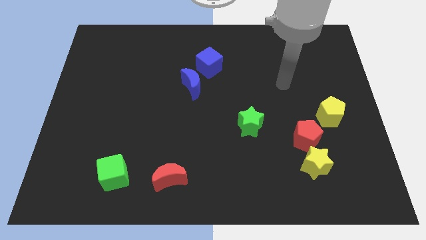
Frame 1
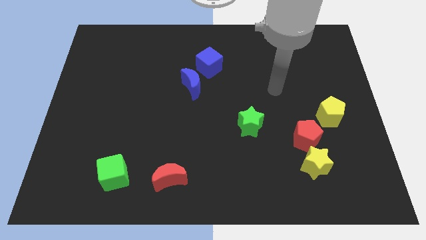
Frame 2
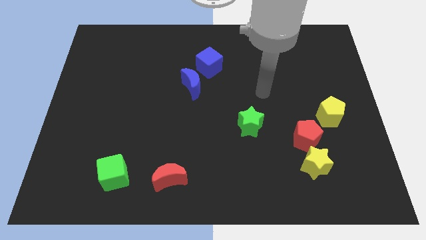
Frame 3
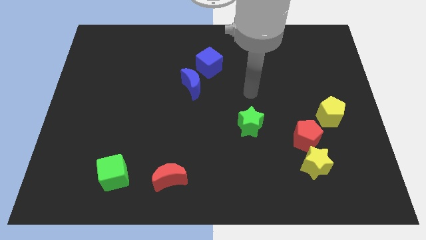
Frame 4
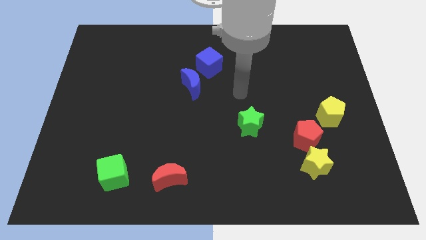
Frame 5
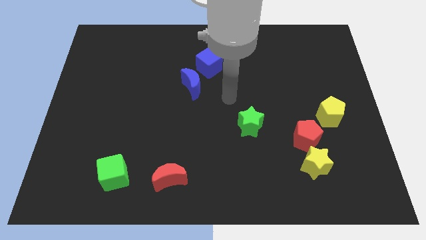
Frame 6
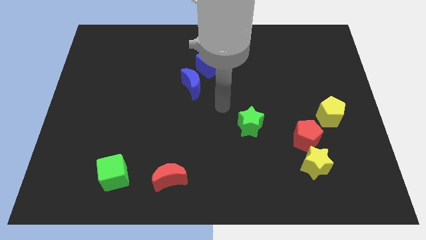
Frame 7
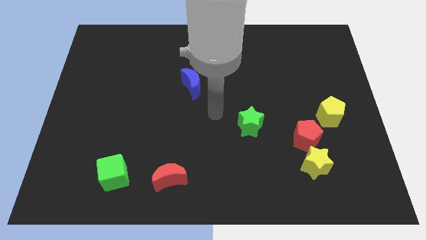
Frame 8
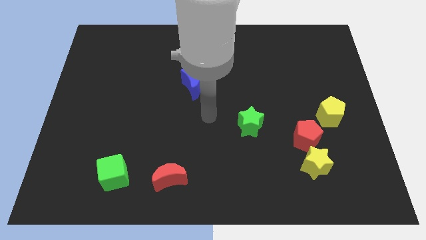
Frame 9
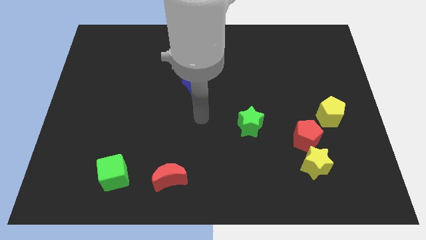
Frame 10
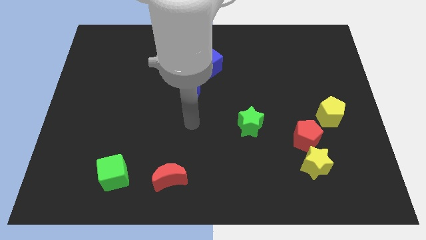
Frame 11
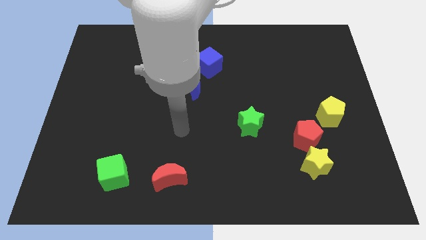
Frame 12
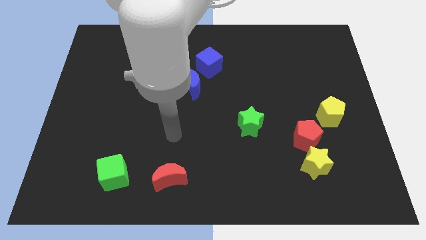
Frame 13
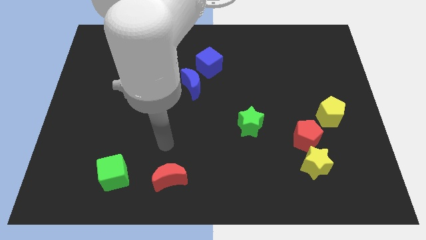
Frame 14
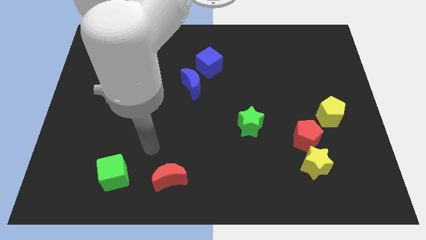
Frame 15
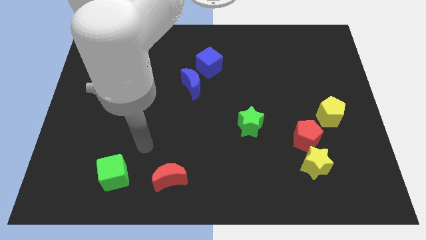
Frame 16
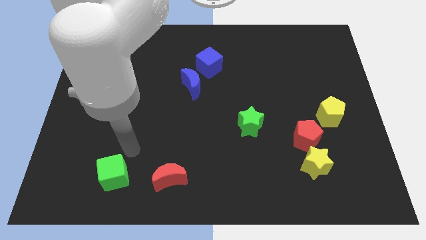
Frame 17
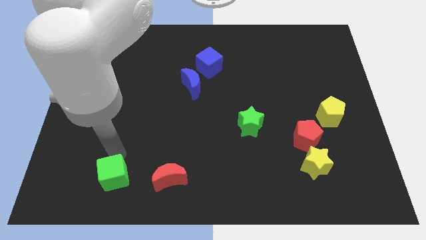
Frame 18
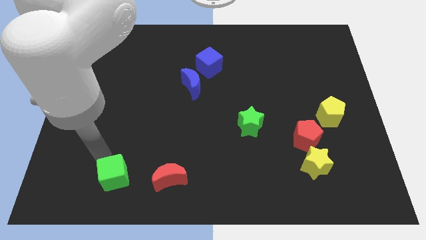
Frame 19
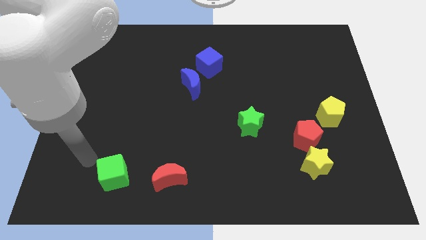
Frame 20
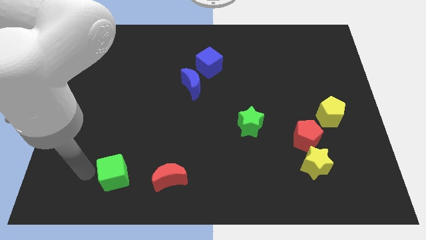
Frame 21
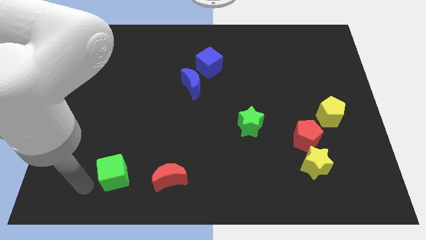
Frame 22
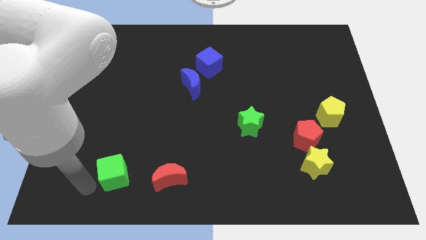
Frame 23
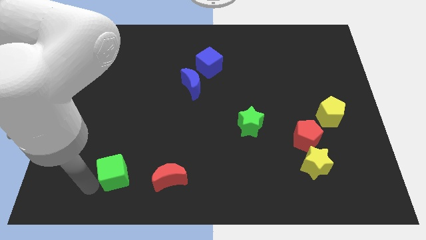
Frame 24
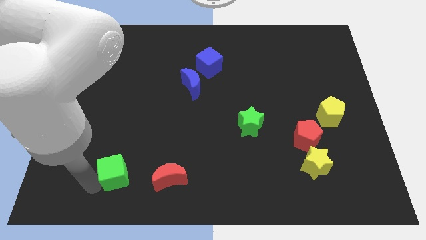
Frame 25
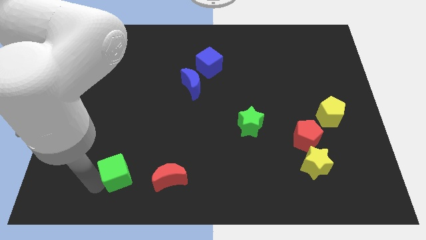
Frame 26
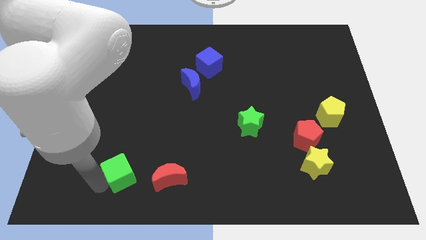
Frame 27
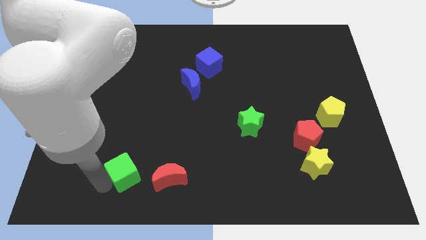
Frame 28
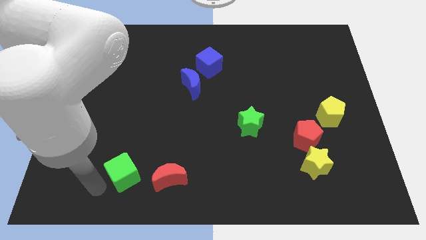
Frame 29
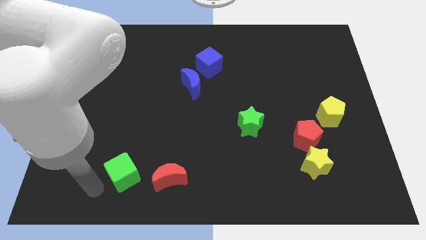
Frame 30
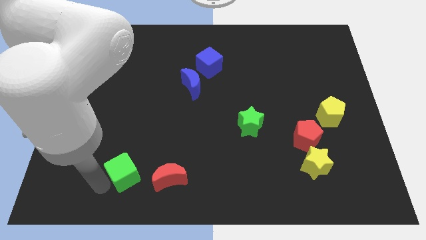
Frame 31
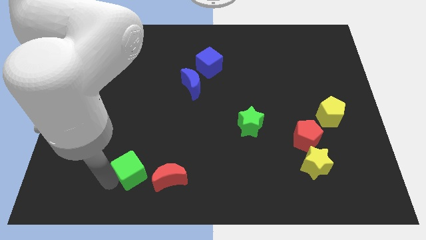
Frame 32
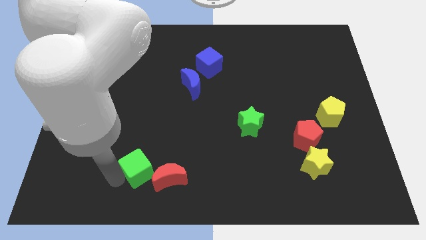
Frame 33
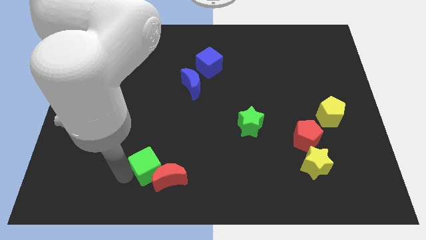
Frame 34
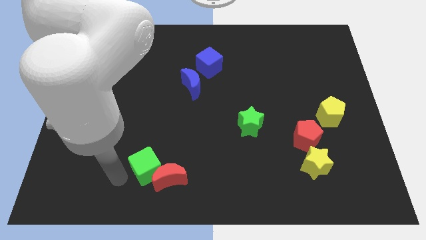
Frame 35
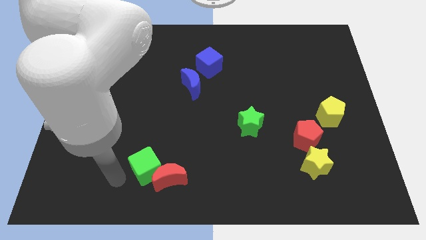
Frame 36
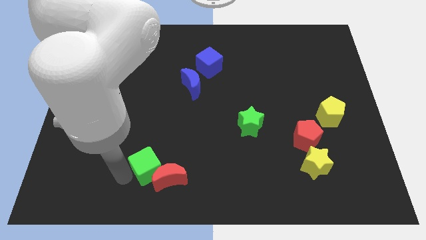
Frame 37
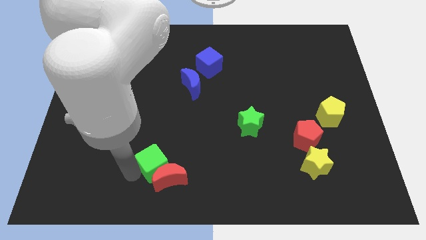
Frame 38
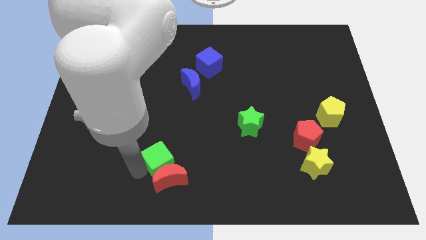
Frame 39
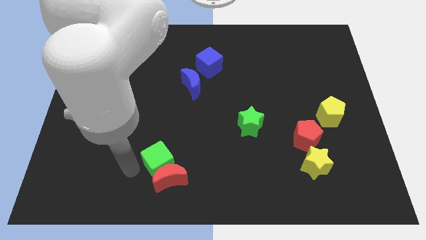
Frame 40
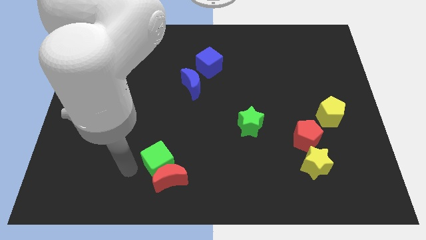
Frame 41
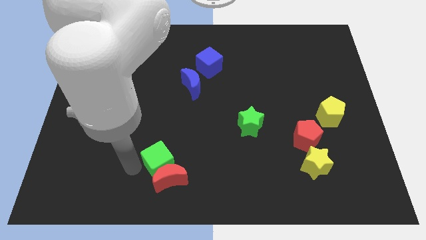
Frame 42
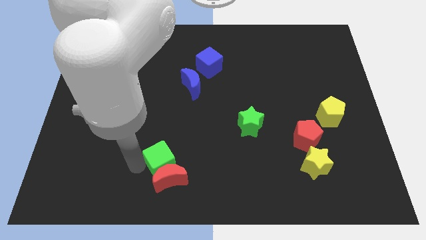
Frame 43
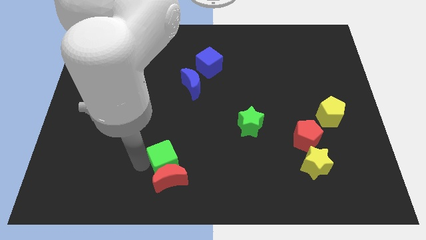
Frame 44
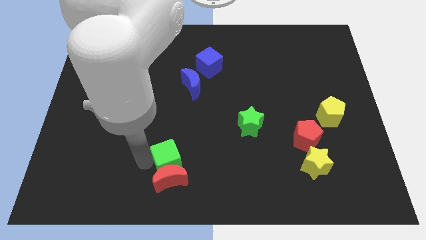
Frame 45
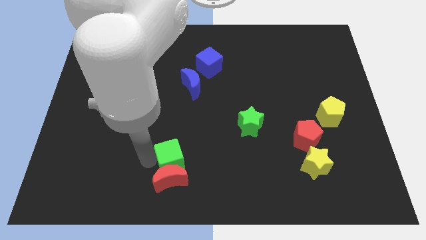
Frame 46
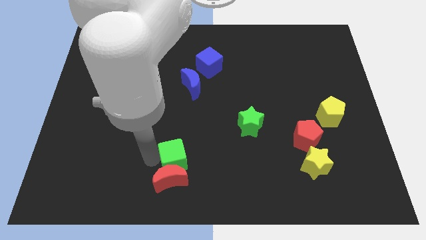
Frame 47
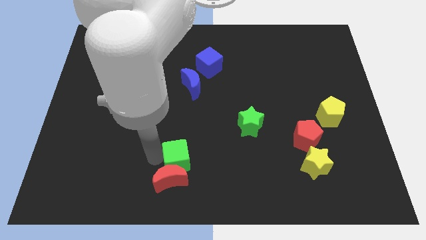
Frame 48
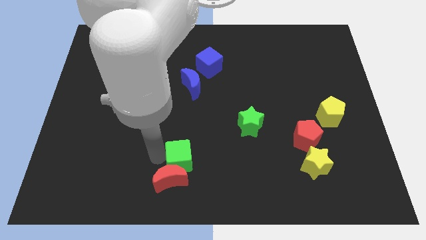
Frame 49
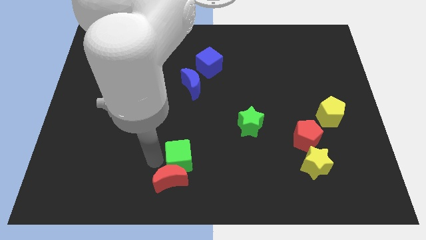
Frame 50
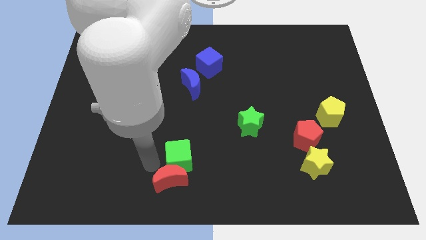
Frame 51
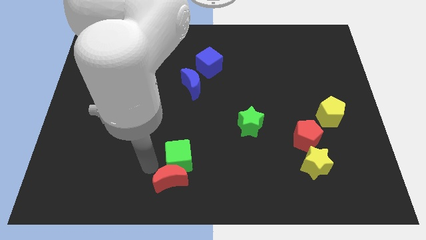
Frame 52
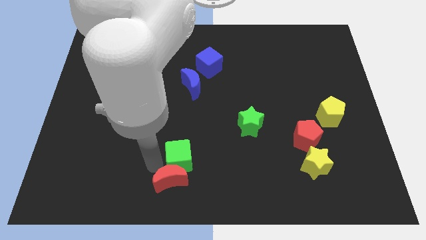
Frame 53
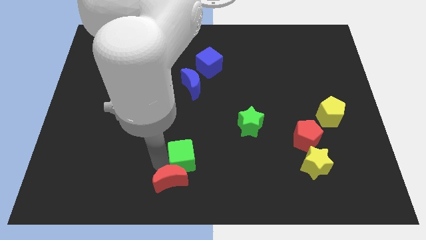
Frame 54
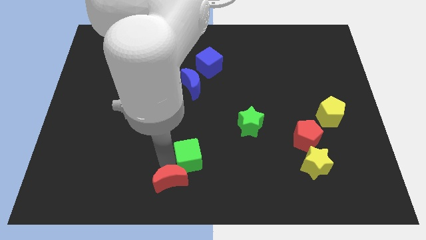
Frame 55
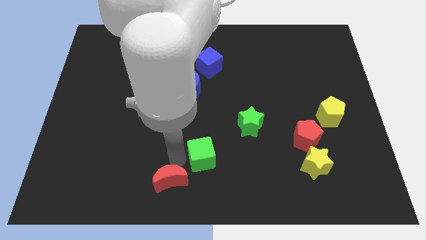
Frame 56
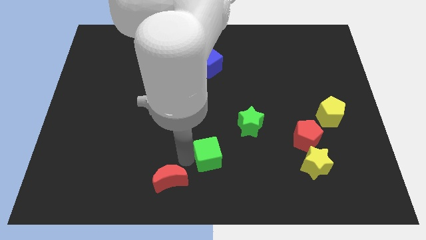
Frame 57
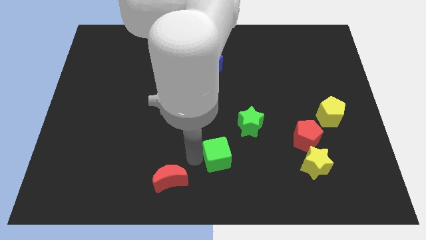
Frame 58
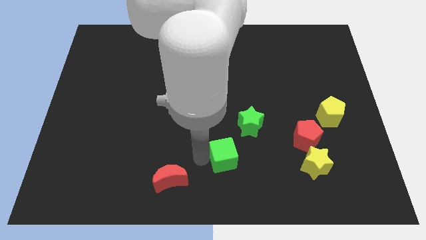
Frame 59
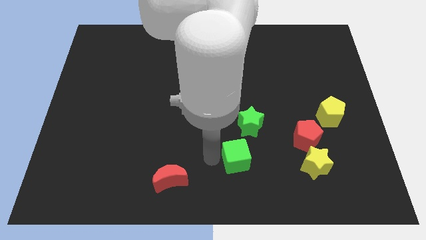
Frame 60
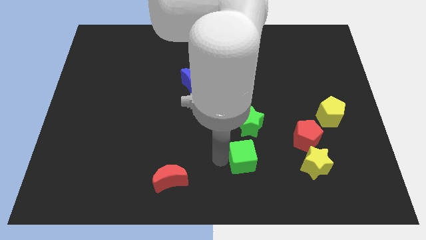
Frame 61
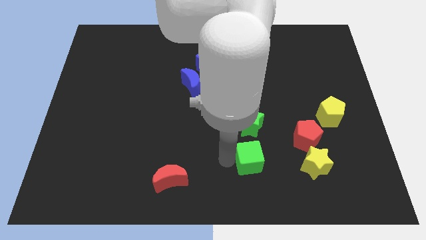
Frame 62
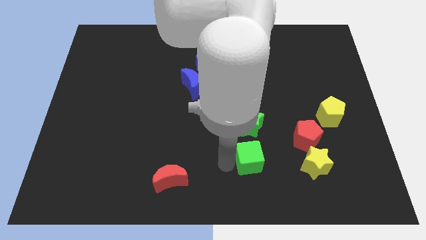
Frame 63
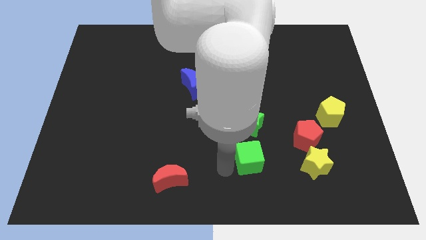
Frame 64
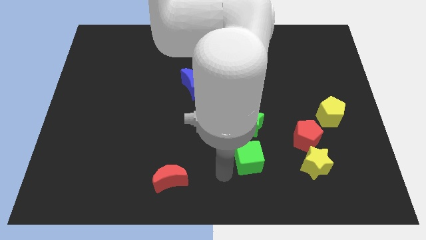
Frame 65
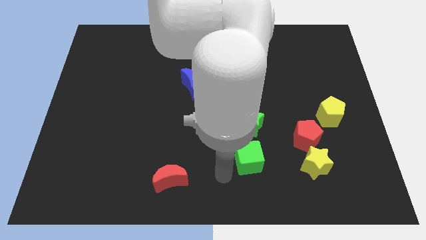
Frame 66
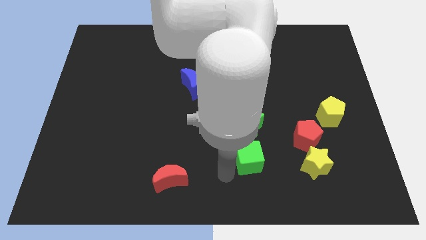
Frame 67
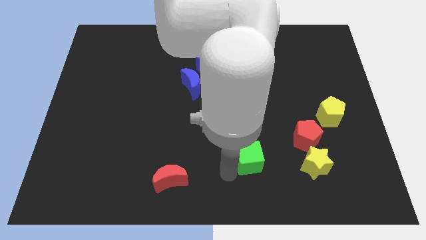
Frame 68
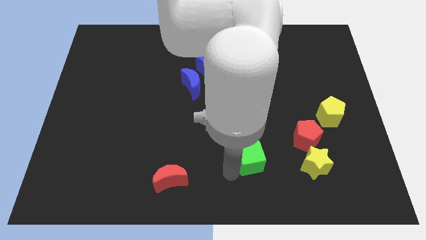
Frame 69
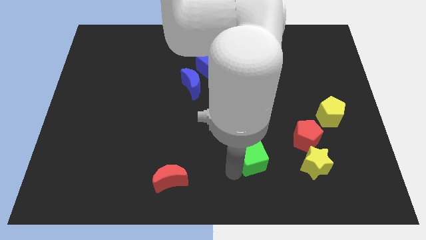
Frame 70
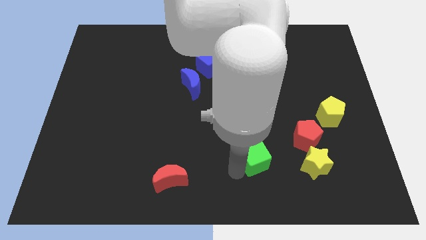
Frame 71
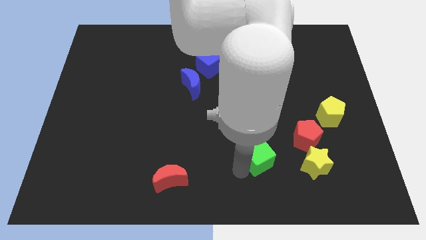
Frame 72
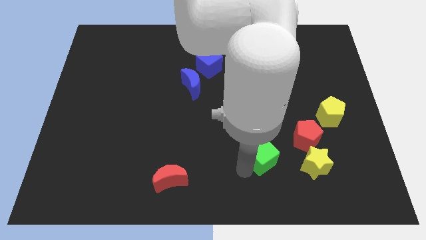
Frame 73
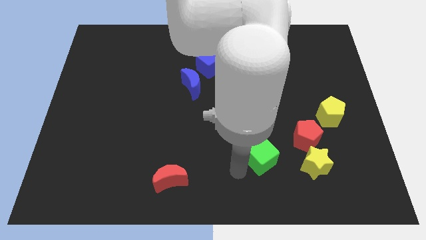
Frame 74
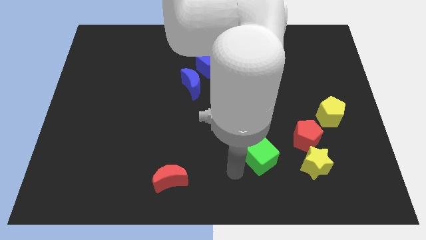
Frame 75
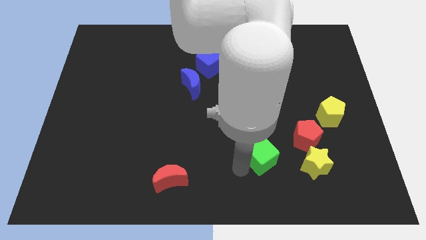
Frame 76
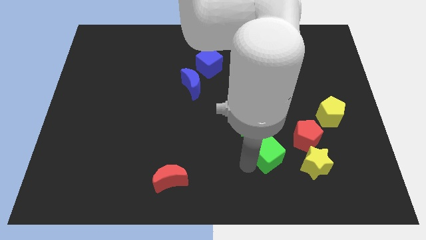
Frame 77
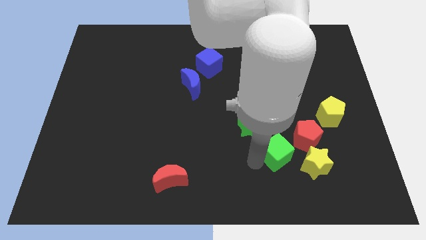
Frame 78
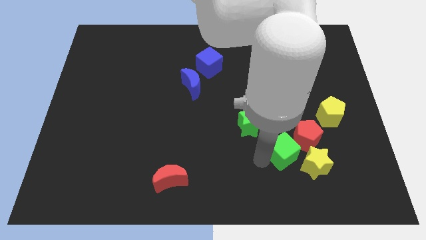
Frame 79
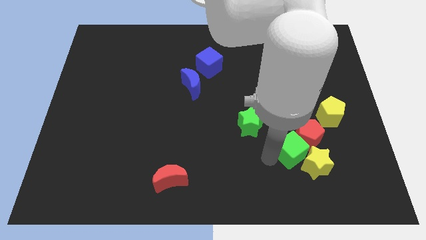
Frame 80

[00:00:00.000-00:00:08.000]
slide the green cube next to the red pentagon
